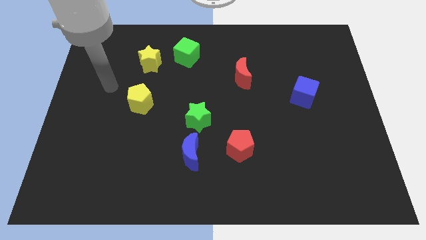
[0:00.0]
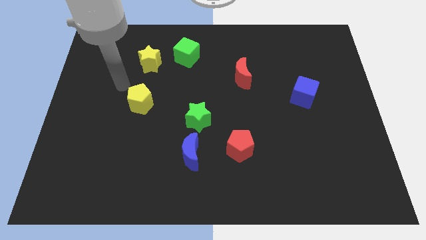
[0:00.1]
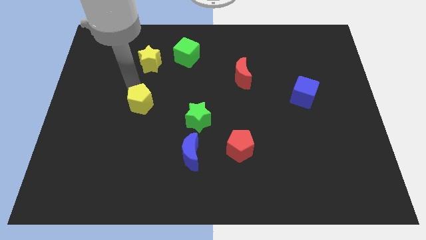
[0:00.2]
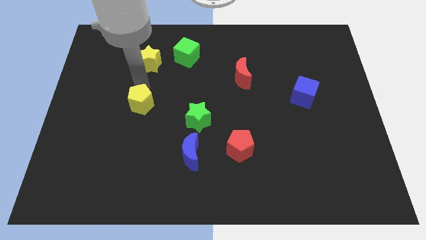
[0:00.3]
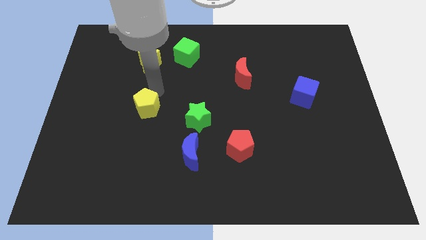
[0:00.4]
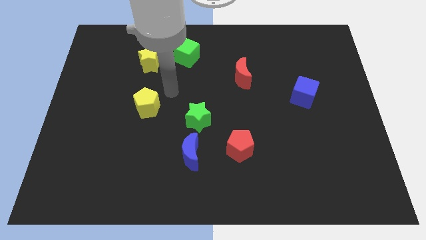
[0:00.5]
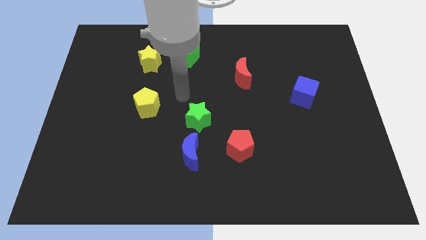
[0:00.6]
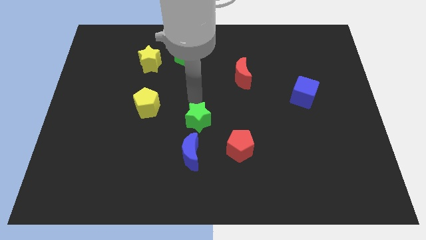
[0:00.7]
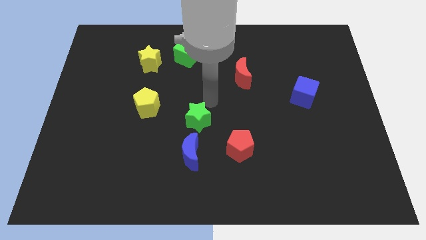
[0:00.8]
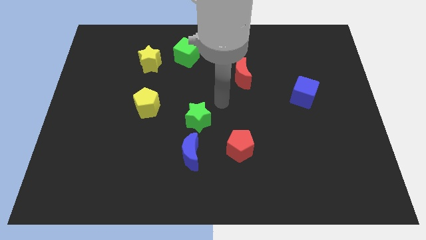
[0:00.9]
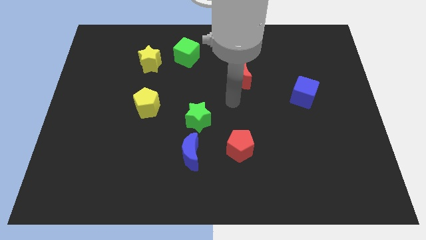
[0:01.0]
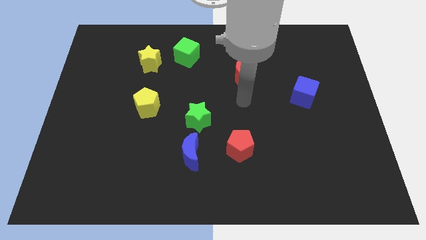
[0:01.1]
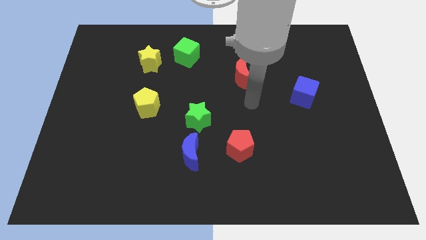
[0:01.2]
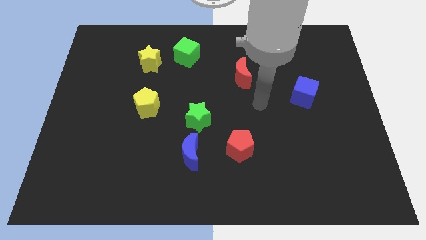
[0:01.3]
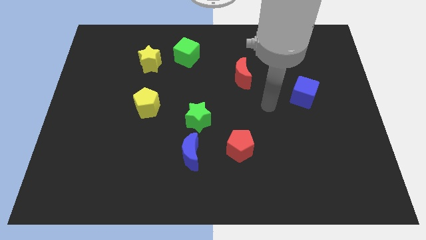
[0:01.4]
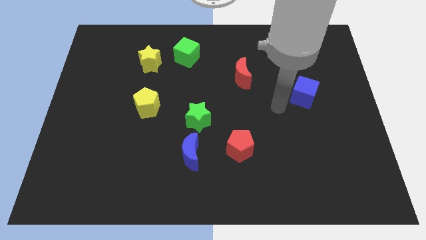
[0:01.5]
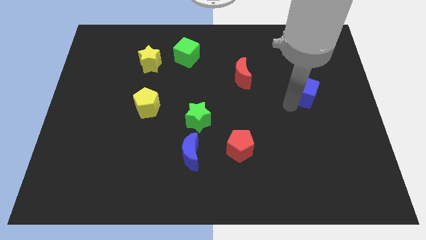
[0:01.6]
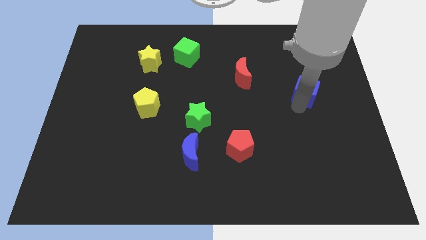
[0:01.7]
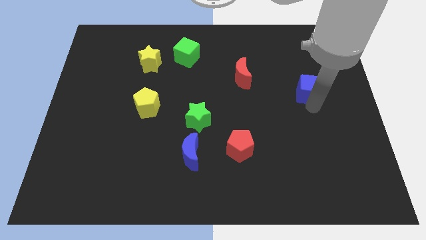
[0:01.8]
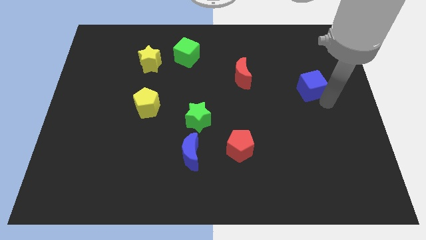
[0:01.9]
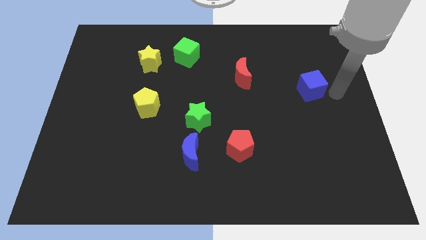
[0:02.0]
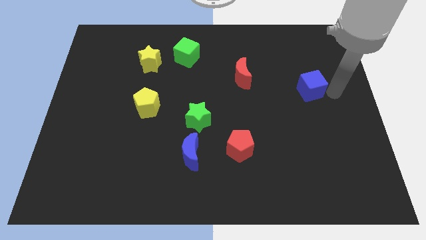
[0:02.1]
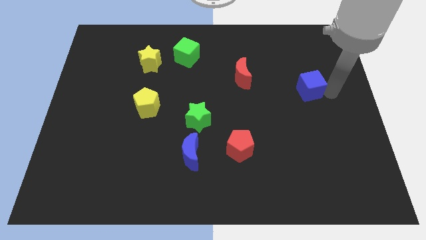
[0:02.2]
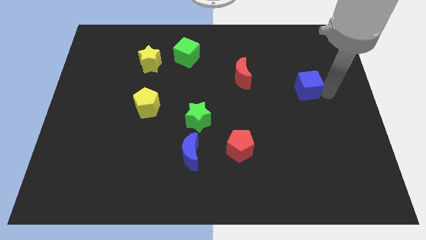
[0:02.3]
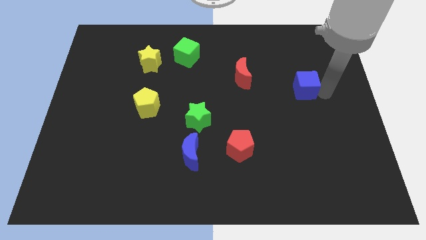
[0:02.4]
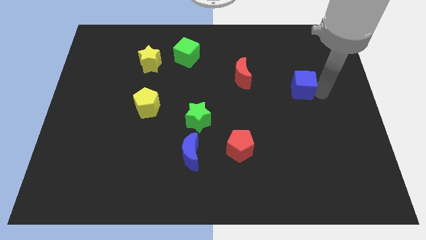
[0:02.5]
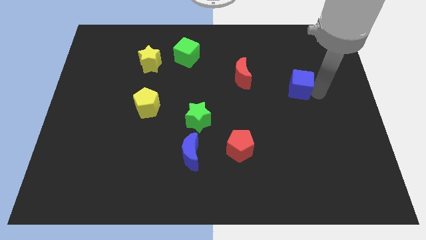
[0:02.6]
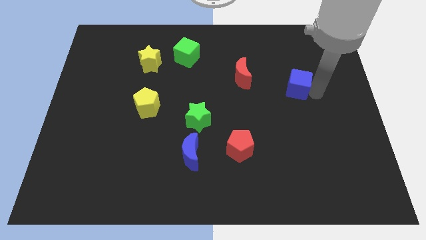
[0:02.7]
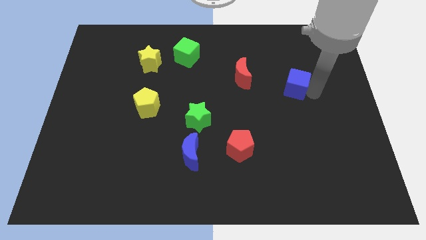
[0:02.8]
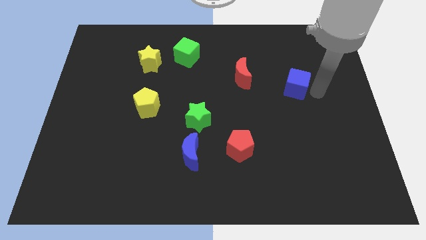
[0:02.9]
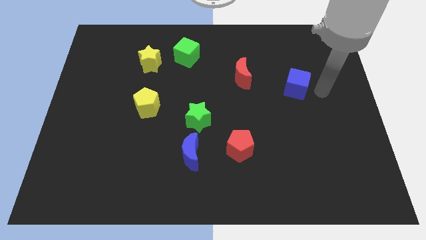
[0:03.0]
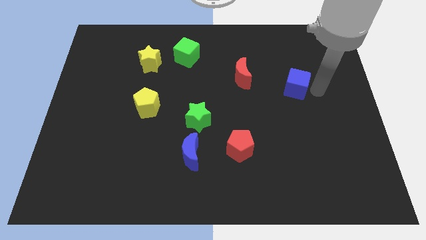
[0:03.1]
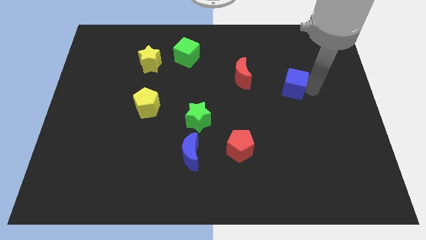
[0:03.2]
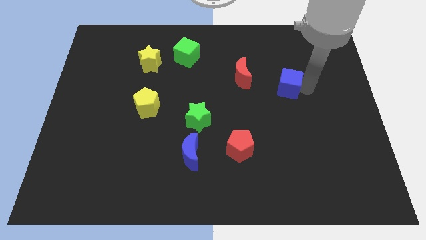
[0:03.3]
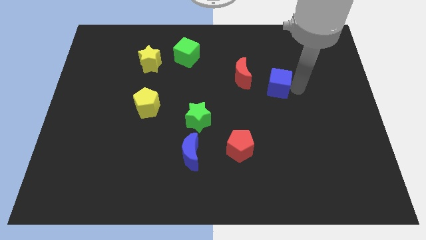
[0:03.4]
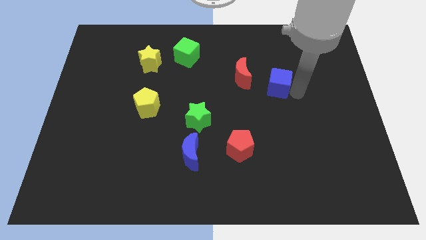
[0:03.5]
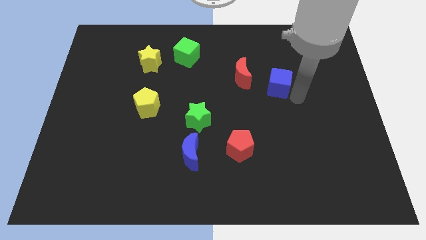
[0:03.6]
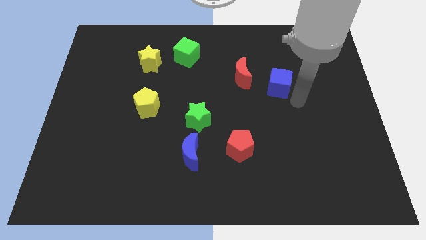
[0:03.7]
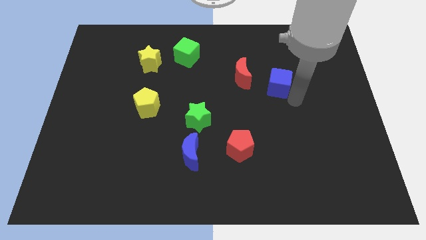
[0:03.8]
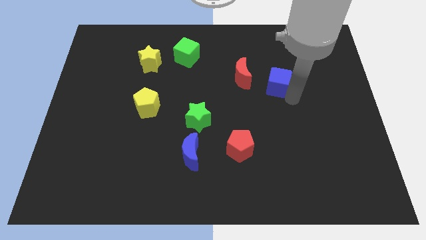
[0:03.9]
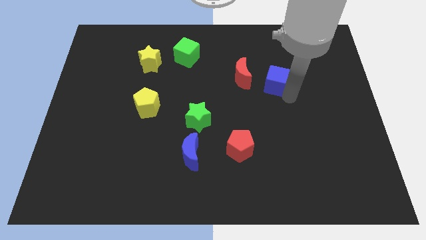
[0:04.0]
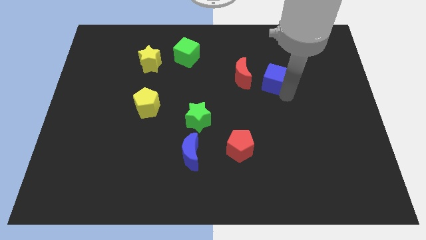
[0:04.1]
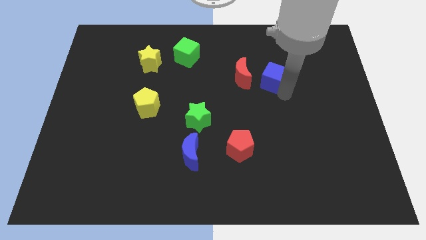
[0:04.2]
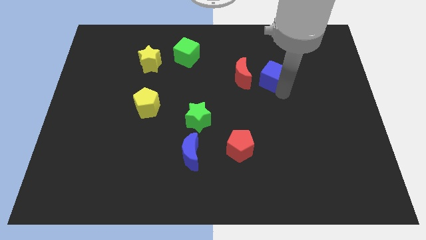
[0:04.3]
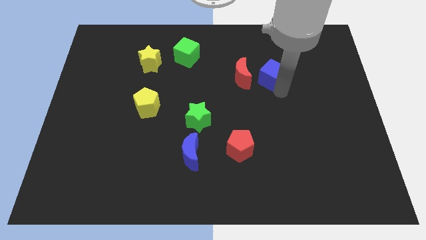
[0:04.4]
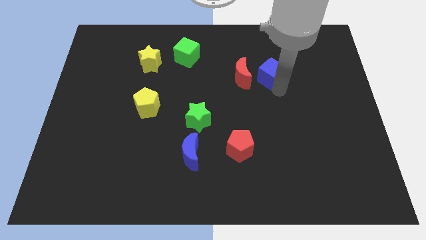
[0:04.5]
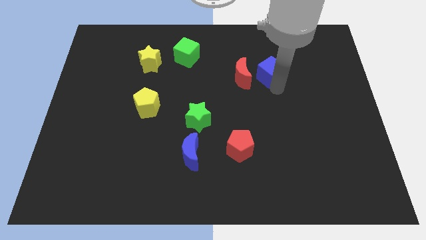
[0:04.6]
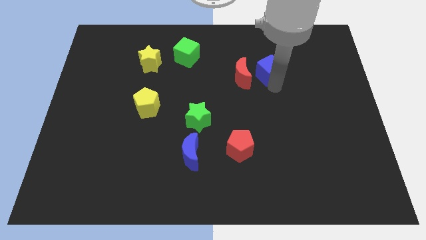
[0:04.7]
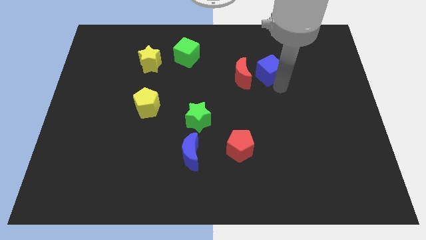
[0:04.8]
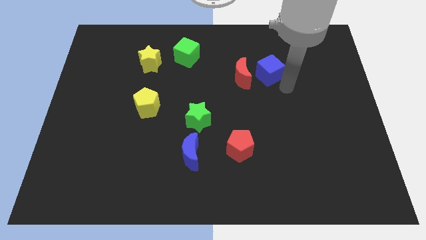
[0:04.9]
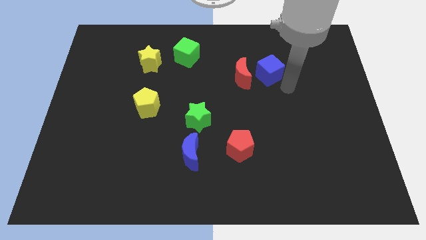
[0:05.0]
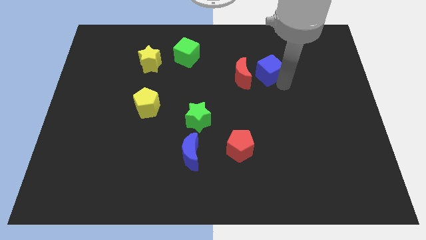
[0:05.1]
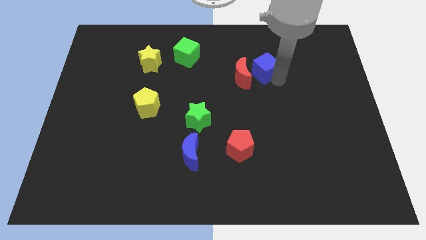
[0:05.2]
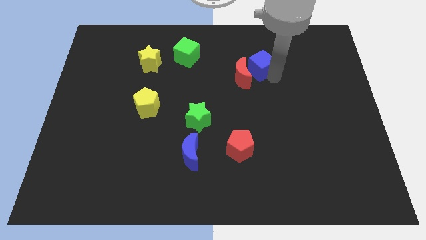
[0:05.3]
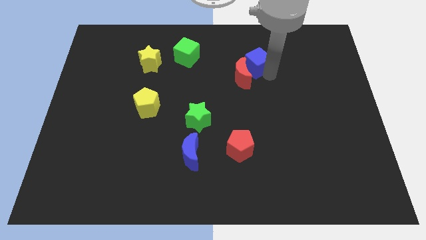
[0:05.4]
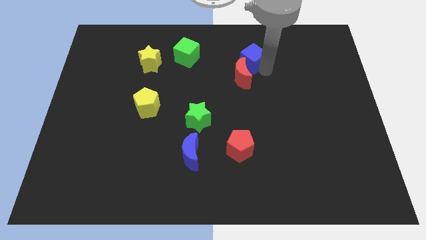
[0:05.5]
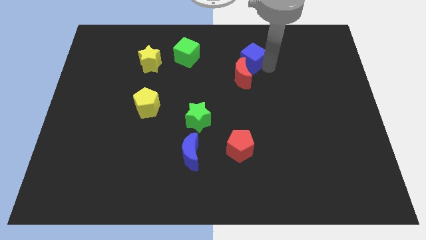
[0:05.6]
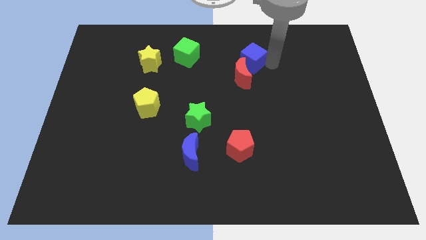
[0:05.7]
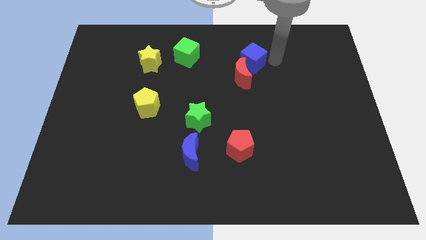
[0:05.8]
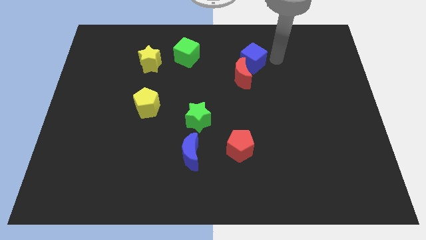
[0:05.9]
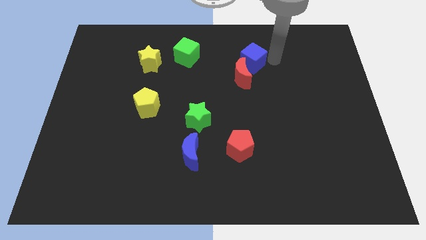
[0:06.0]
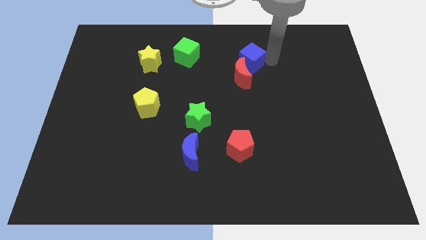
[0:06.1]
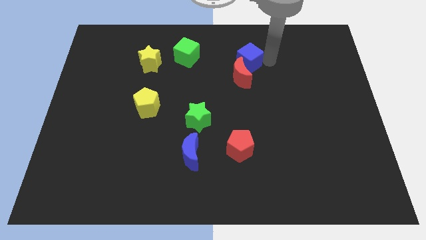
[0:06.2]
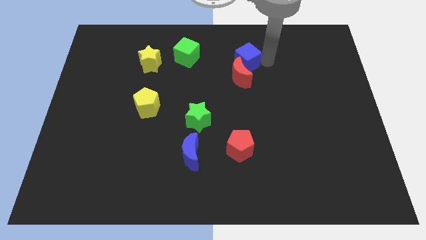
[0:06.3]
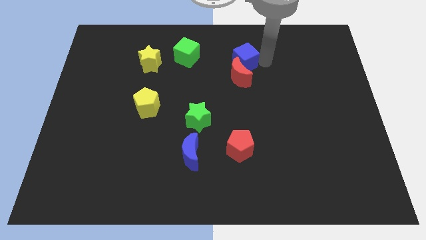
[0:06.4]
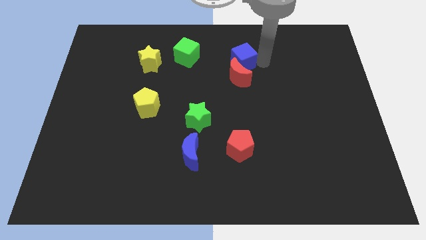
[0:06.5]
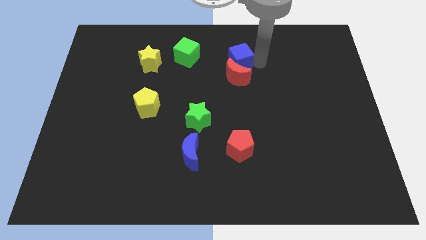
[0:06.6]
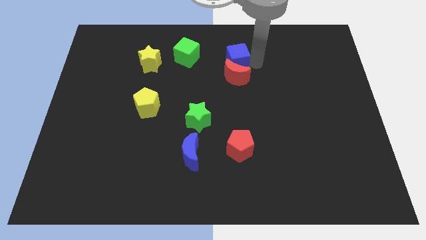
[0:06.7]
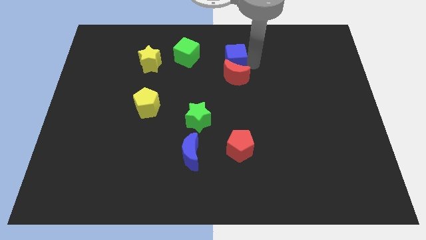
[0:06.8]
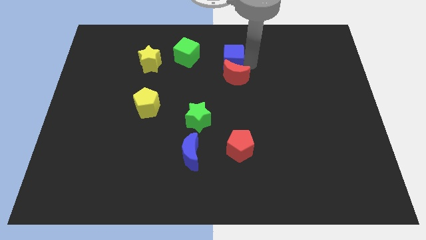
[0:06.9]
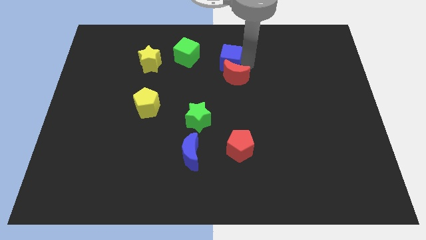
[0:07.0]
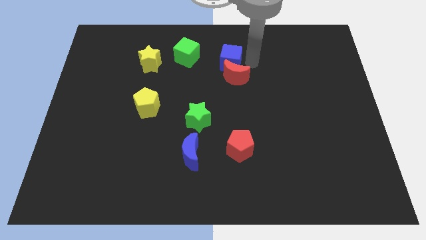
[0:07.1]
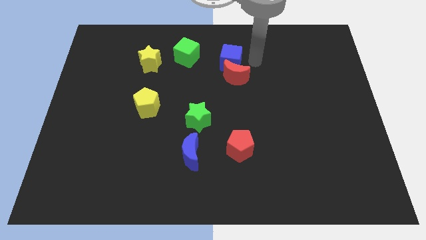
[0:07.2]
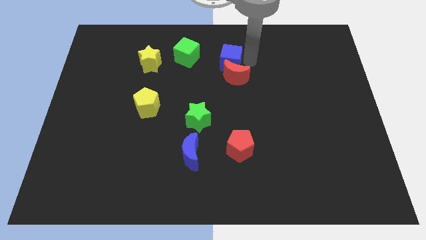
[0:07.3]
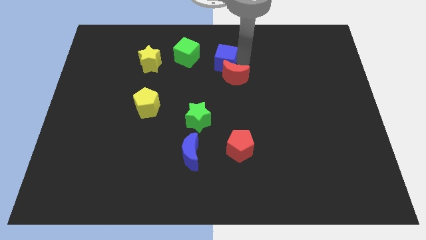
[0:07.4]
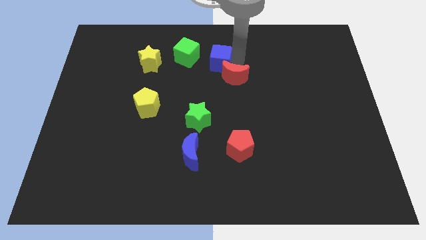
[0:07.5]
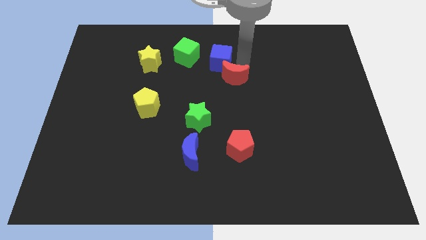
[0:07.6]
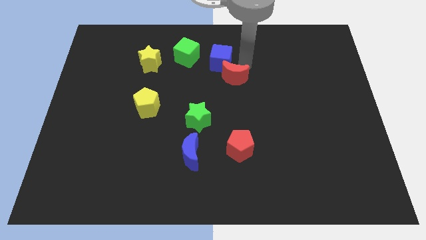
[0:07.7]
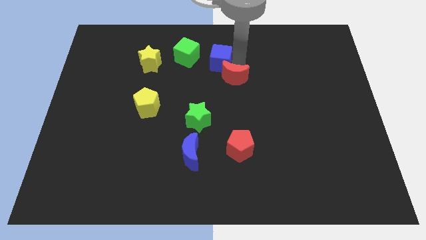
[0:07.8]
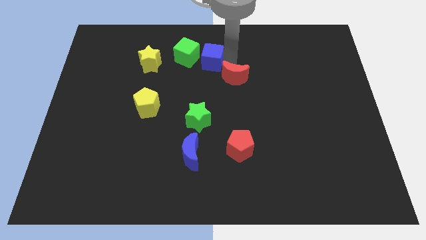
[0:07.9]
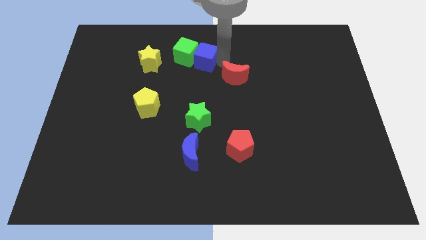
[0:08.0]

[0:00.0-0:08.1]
slide the blue cube towards the green cube
